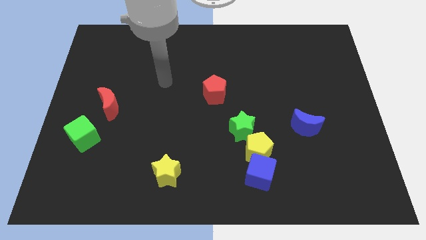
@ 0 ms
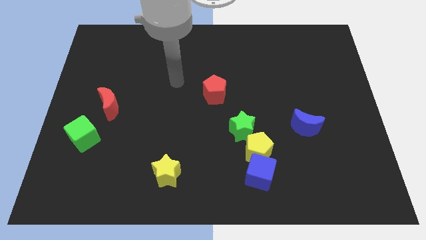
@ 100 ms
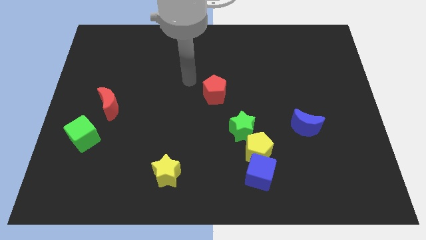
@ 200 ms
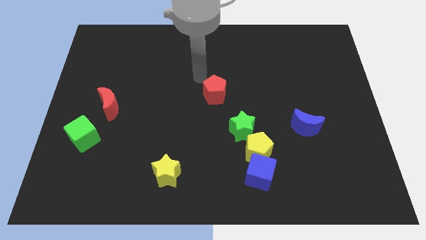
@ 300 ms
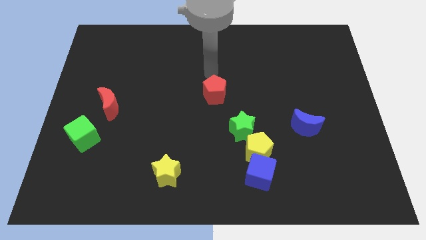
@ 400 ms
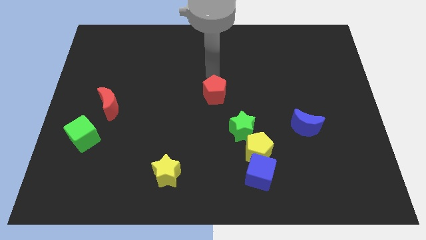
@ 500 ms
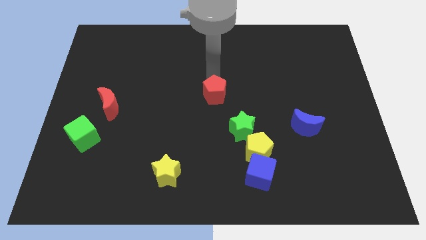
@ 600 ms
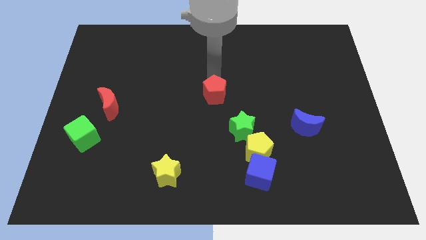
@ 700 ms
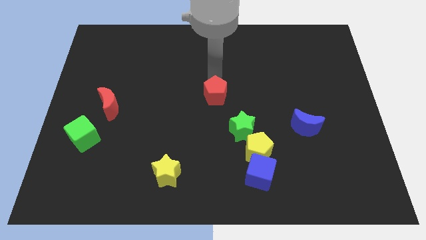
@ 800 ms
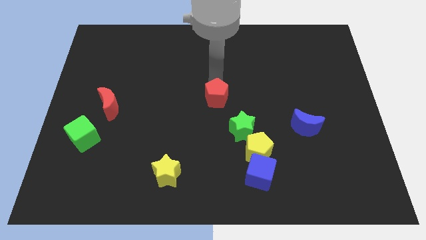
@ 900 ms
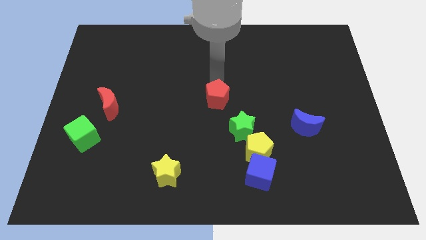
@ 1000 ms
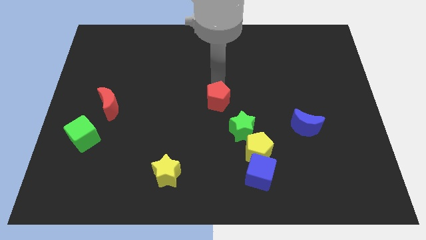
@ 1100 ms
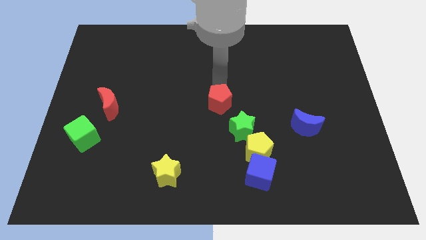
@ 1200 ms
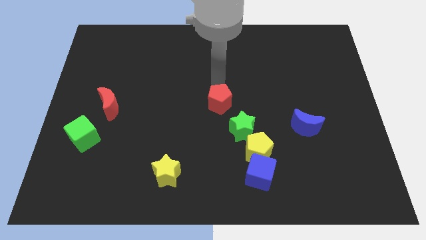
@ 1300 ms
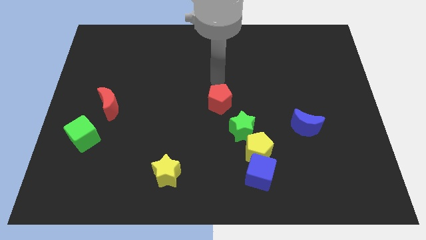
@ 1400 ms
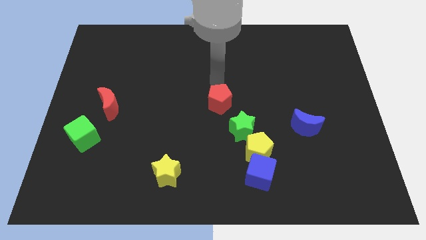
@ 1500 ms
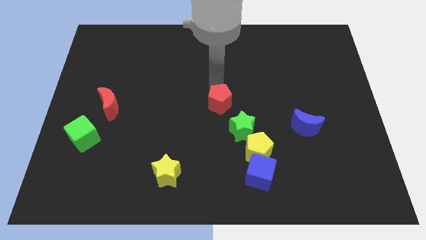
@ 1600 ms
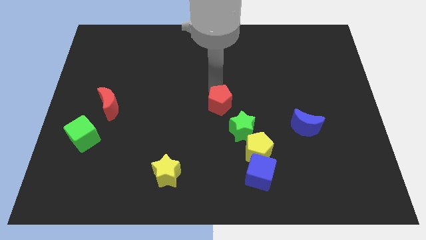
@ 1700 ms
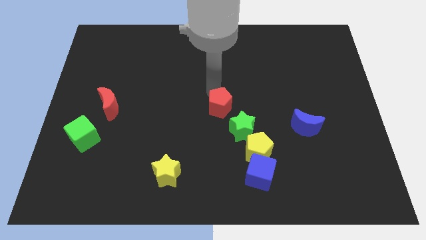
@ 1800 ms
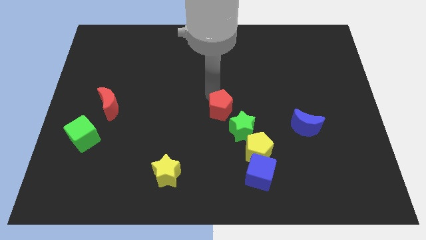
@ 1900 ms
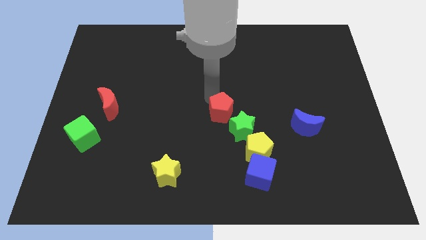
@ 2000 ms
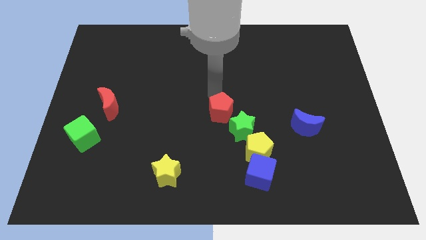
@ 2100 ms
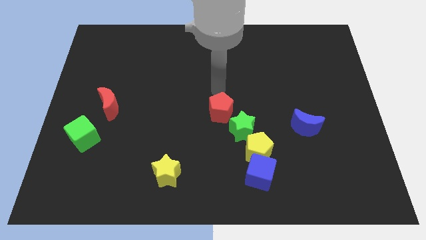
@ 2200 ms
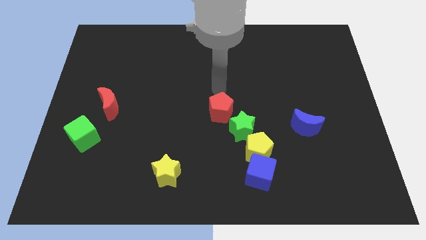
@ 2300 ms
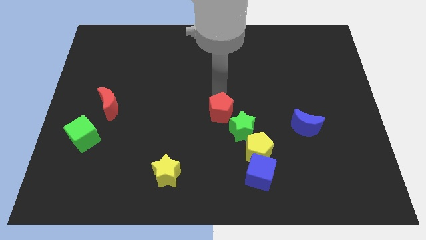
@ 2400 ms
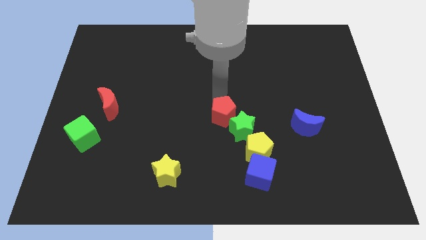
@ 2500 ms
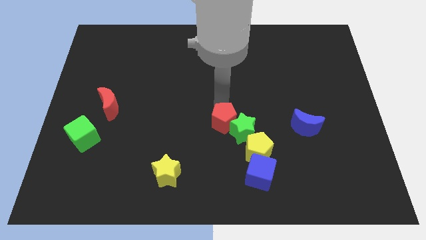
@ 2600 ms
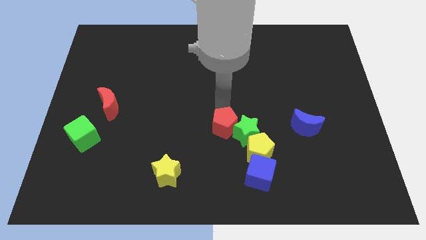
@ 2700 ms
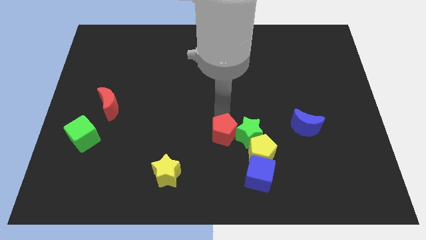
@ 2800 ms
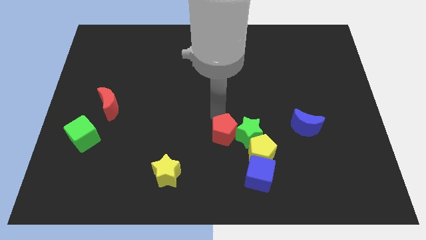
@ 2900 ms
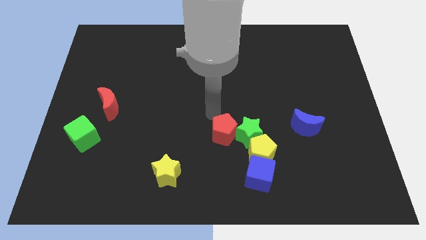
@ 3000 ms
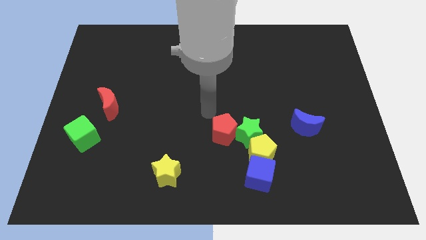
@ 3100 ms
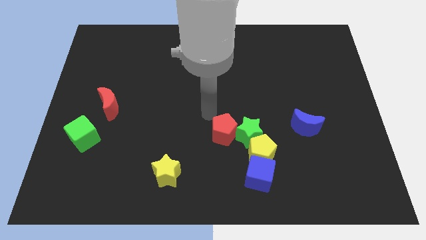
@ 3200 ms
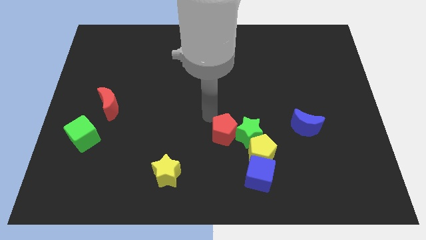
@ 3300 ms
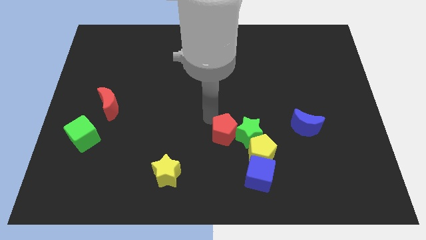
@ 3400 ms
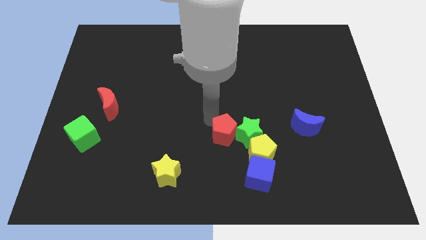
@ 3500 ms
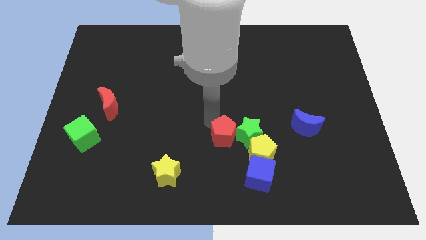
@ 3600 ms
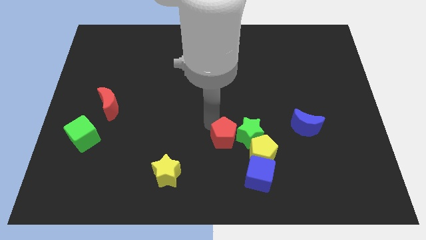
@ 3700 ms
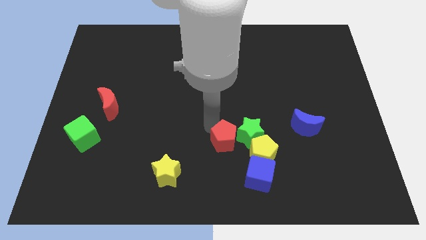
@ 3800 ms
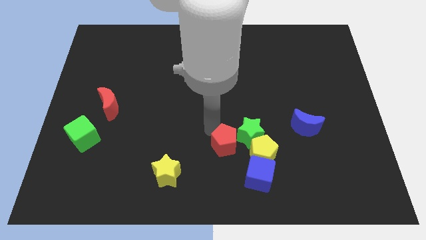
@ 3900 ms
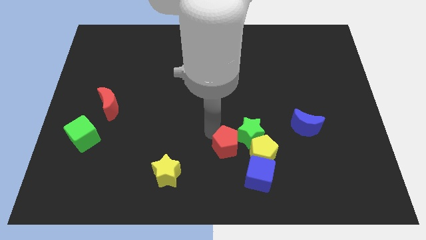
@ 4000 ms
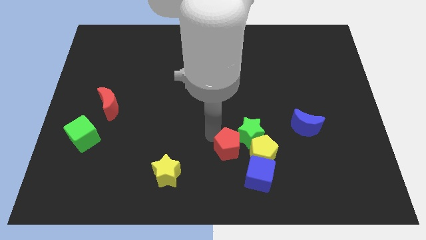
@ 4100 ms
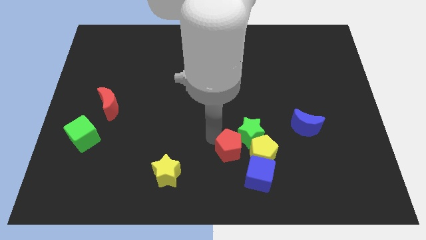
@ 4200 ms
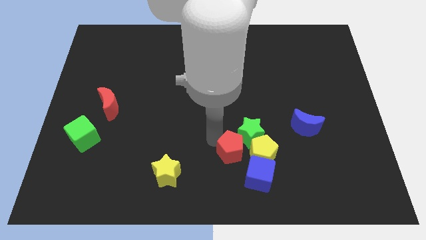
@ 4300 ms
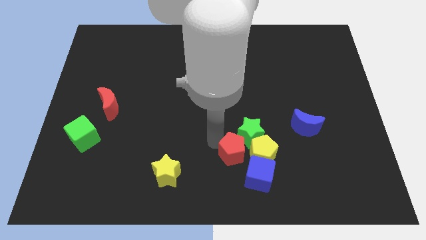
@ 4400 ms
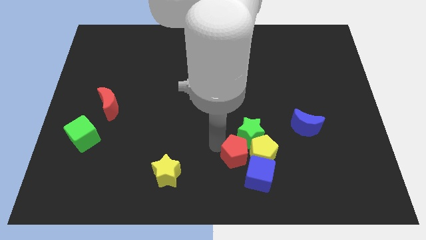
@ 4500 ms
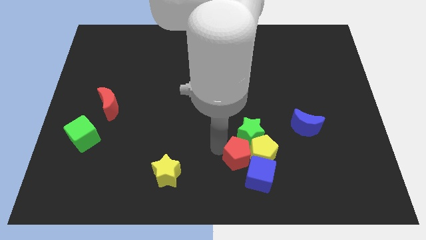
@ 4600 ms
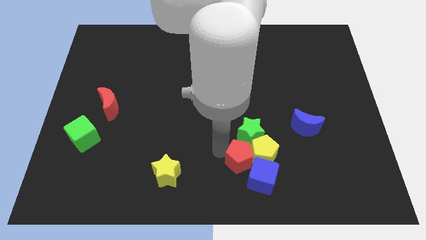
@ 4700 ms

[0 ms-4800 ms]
move the red pentagon to the blue cube

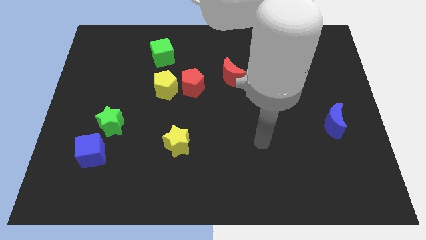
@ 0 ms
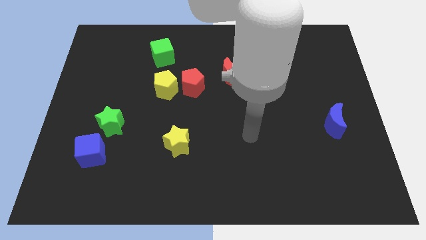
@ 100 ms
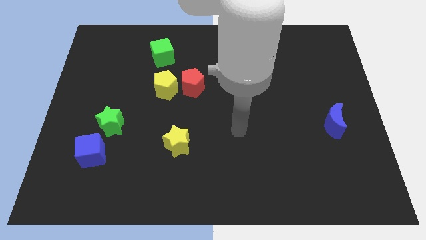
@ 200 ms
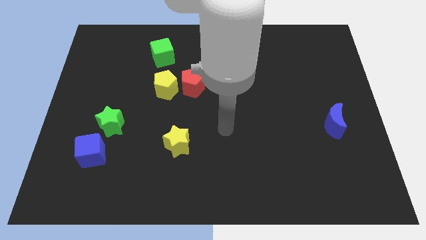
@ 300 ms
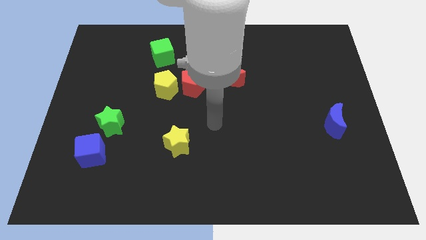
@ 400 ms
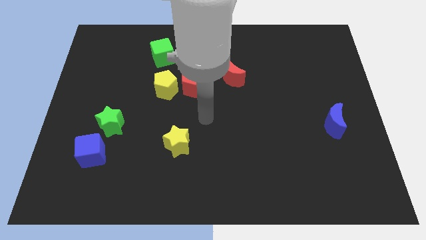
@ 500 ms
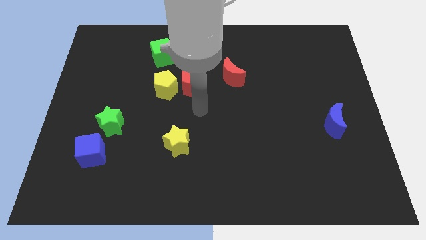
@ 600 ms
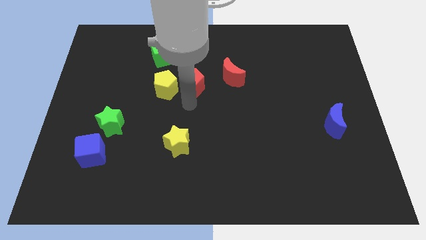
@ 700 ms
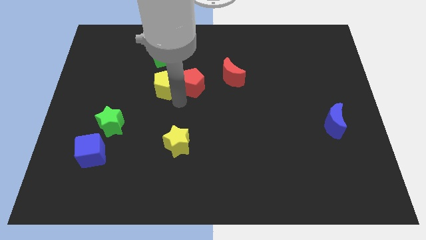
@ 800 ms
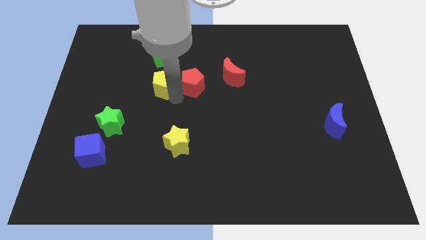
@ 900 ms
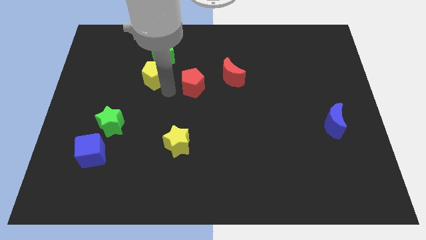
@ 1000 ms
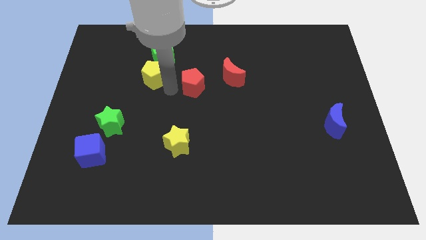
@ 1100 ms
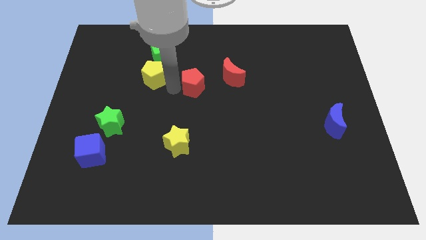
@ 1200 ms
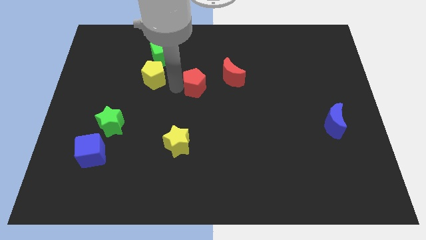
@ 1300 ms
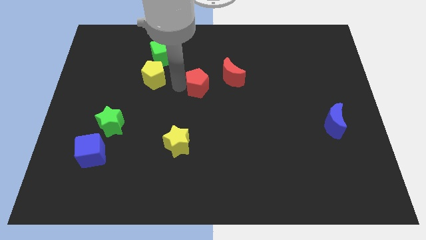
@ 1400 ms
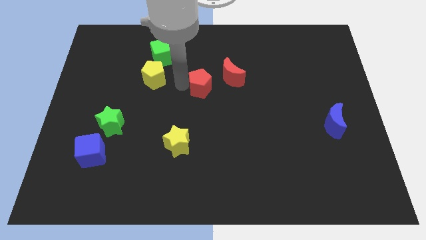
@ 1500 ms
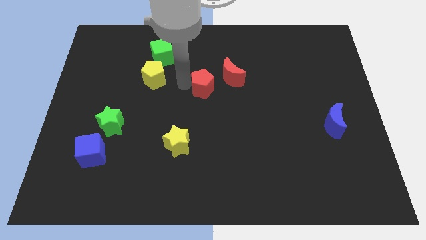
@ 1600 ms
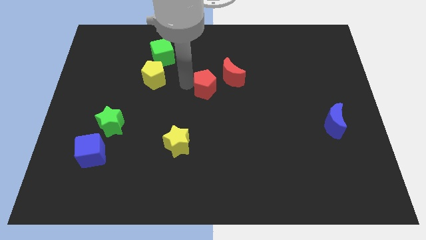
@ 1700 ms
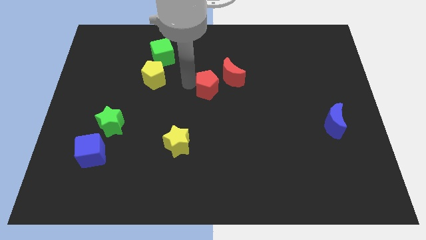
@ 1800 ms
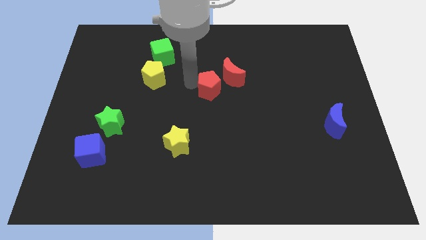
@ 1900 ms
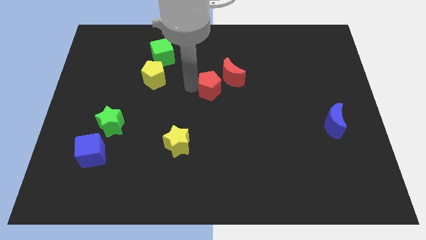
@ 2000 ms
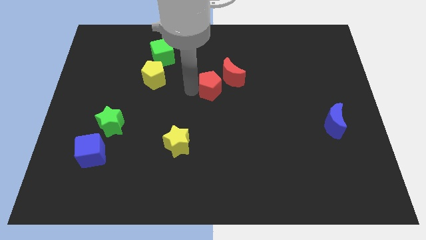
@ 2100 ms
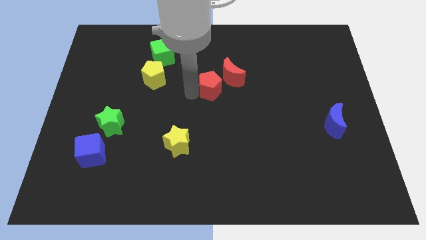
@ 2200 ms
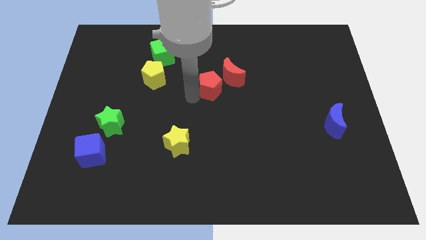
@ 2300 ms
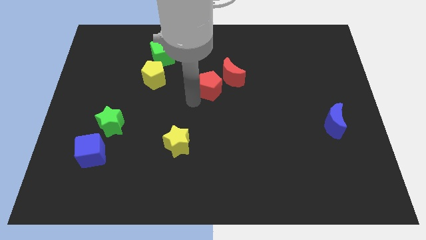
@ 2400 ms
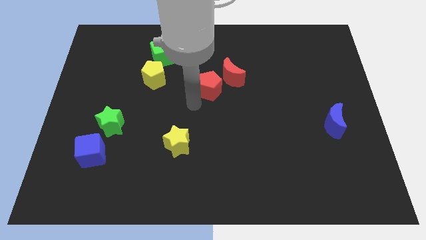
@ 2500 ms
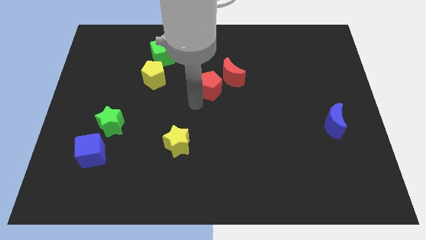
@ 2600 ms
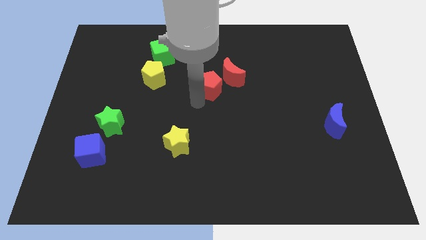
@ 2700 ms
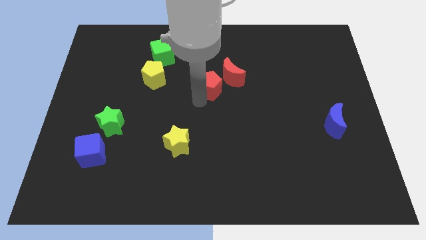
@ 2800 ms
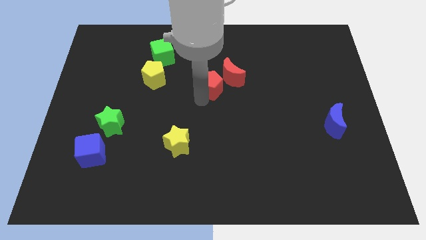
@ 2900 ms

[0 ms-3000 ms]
push the red pentagon towards the red moon
